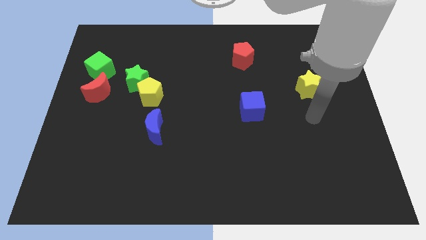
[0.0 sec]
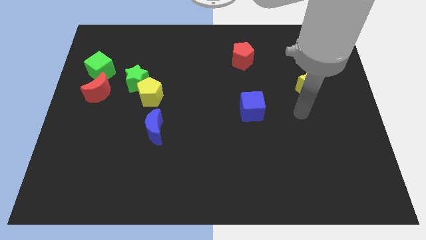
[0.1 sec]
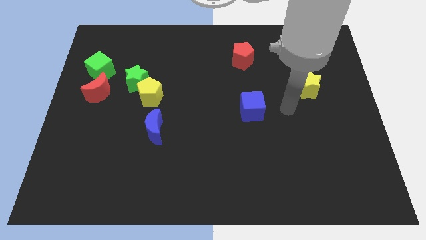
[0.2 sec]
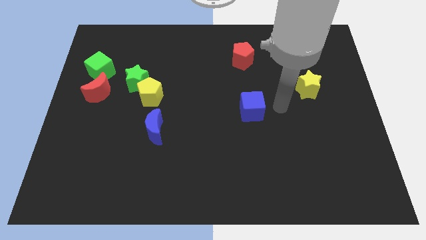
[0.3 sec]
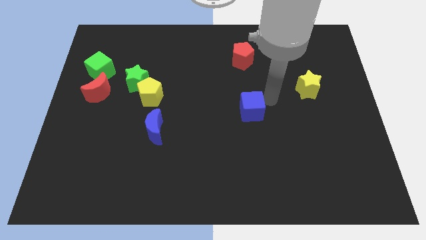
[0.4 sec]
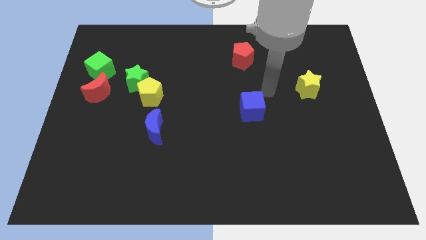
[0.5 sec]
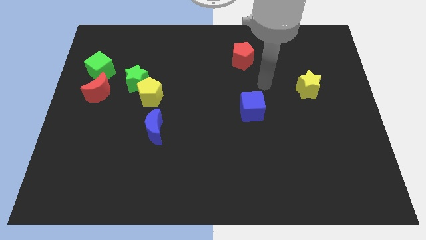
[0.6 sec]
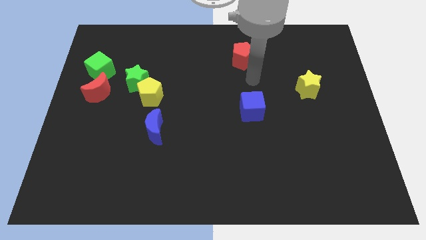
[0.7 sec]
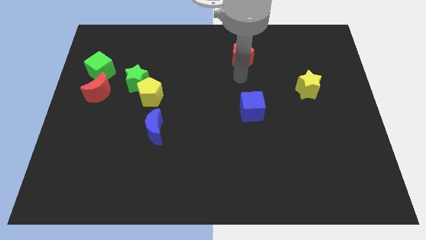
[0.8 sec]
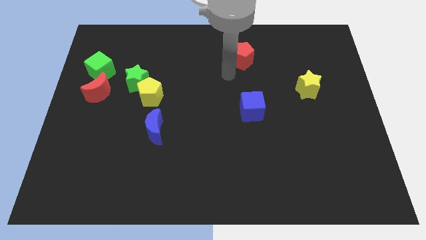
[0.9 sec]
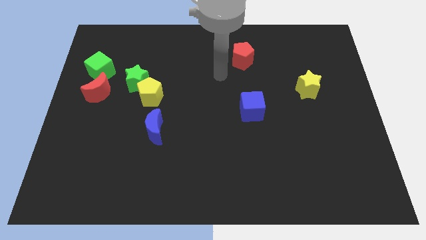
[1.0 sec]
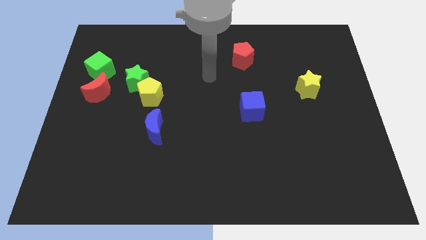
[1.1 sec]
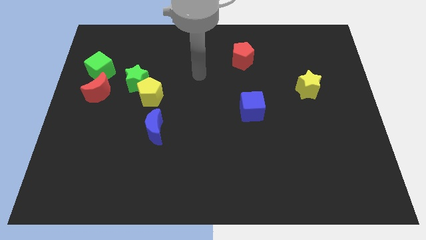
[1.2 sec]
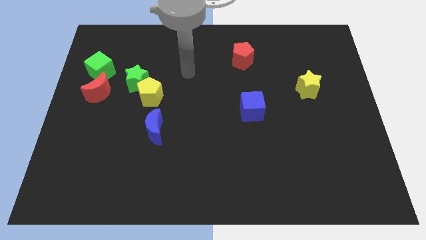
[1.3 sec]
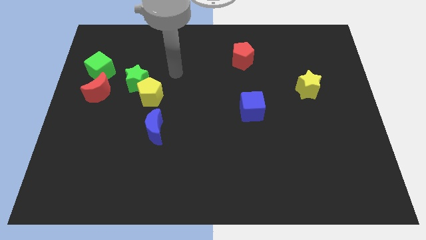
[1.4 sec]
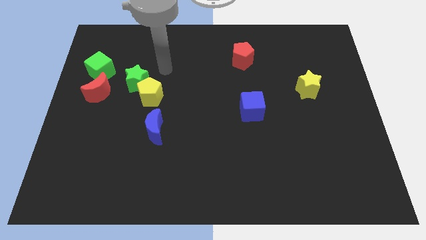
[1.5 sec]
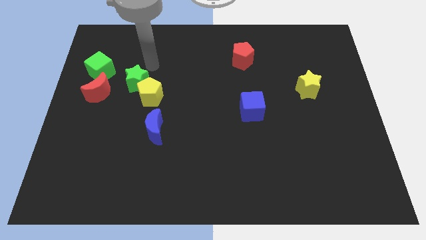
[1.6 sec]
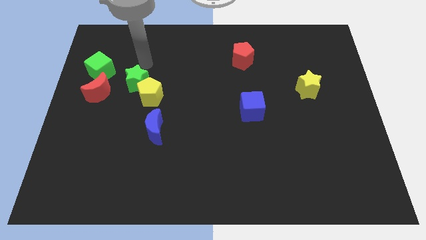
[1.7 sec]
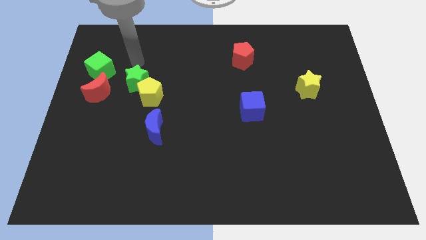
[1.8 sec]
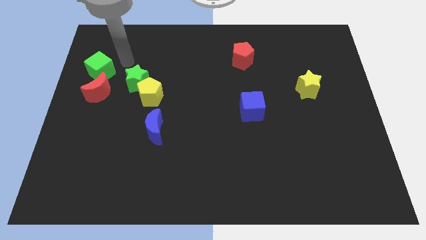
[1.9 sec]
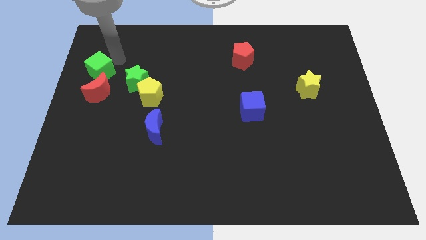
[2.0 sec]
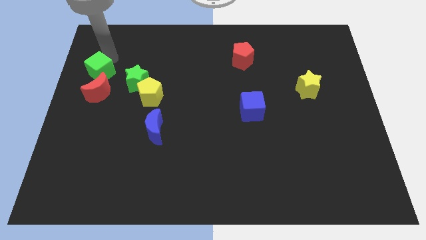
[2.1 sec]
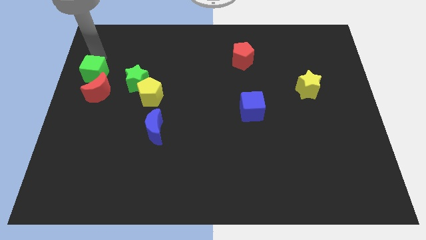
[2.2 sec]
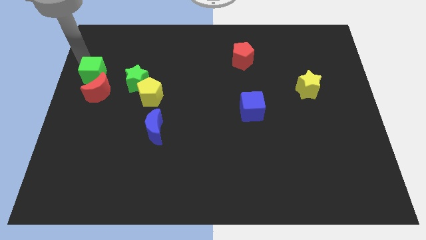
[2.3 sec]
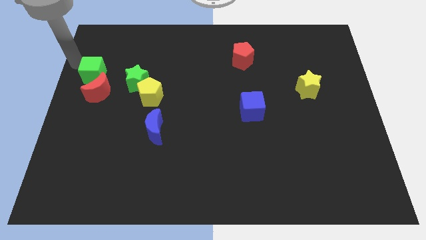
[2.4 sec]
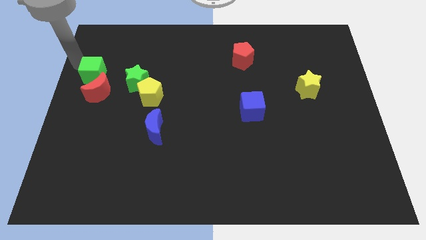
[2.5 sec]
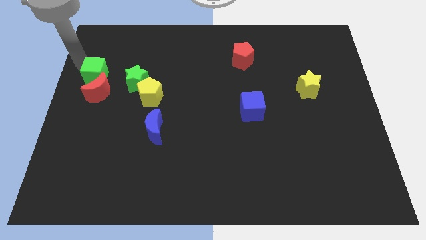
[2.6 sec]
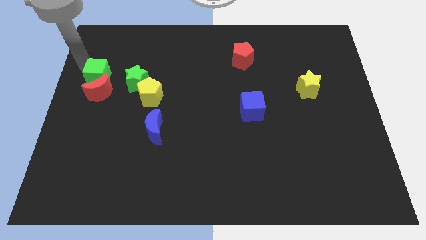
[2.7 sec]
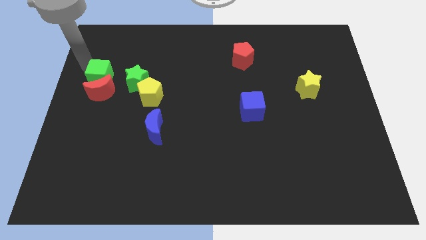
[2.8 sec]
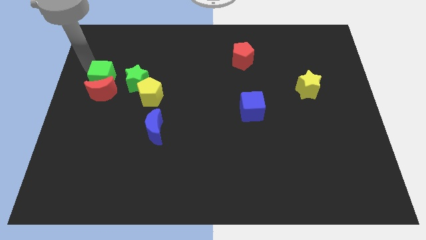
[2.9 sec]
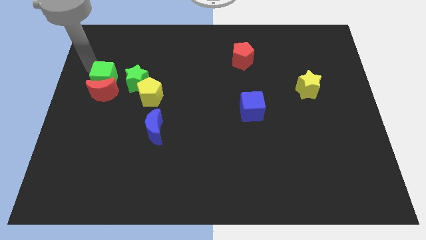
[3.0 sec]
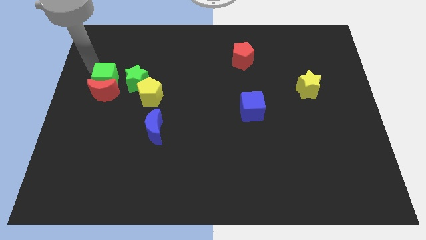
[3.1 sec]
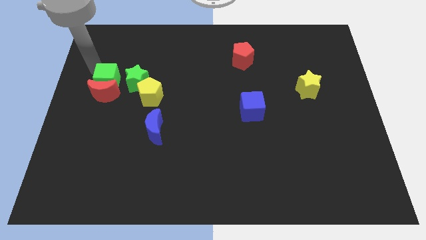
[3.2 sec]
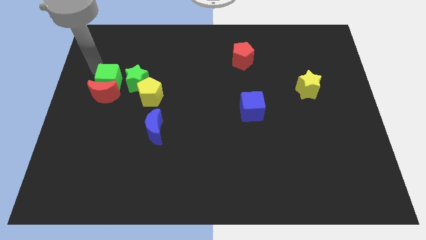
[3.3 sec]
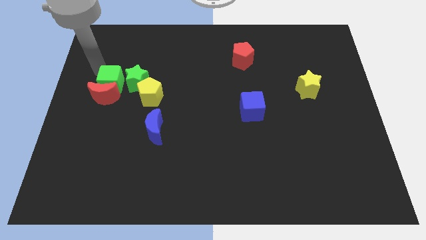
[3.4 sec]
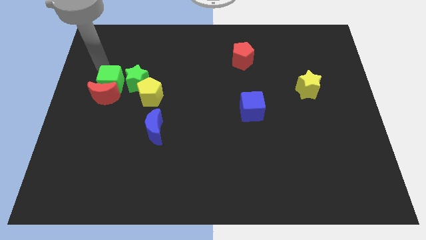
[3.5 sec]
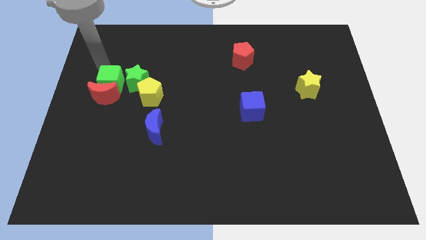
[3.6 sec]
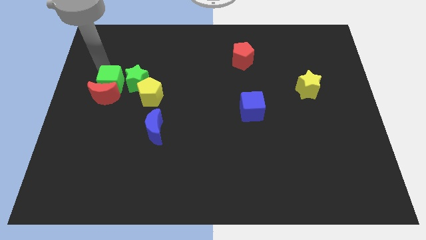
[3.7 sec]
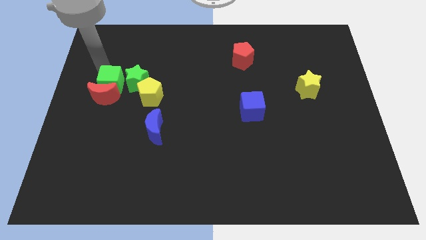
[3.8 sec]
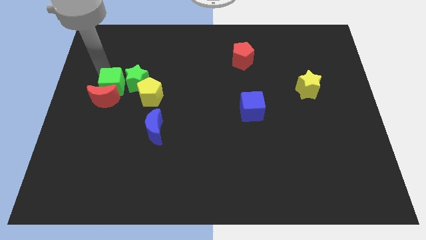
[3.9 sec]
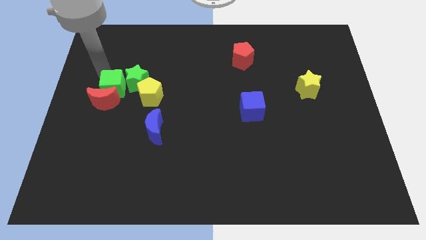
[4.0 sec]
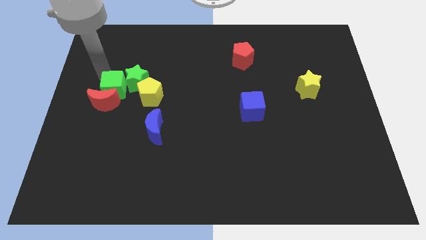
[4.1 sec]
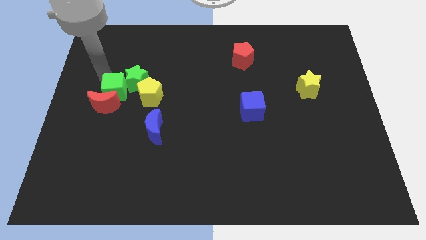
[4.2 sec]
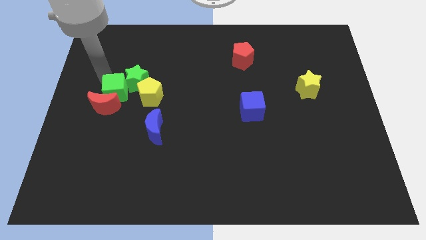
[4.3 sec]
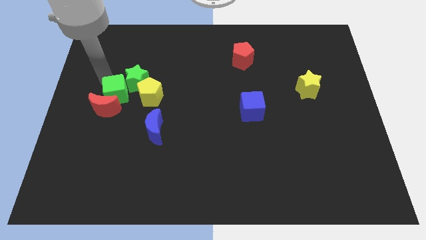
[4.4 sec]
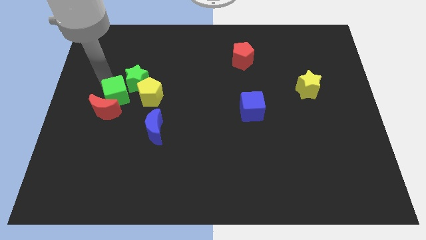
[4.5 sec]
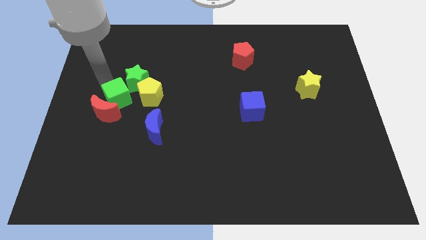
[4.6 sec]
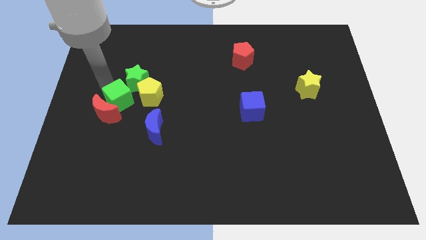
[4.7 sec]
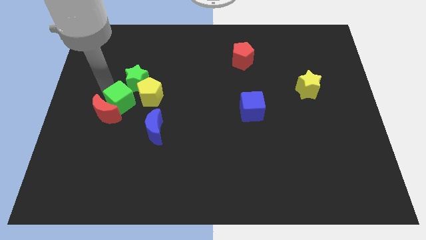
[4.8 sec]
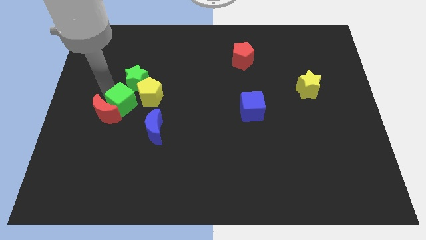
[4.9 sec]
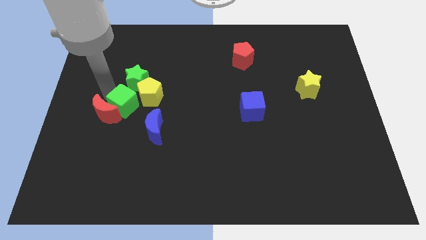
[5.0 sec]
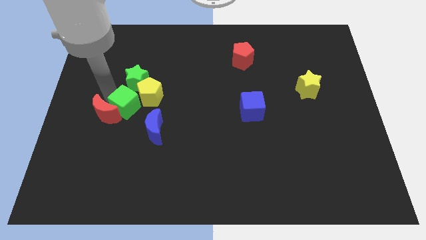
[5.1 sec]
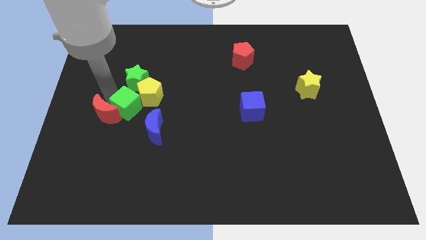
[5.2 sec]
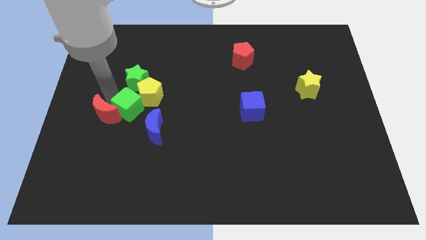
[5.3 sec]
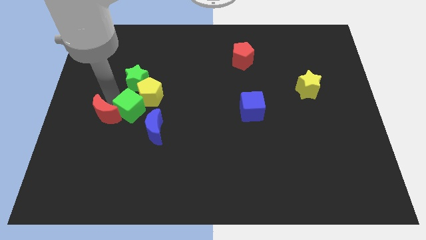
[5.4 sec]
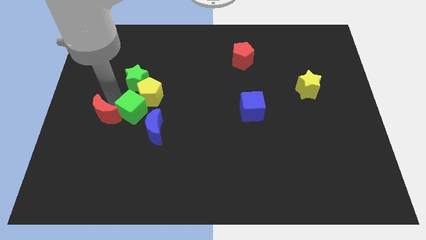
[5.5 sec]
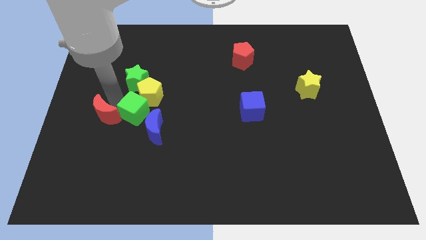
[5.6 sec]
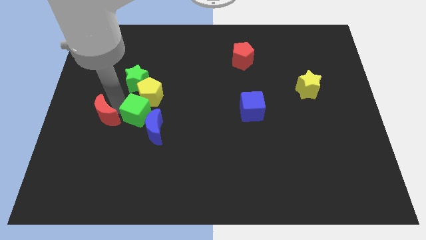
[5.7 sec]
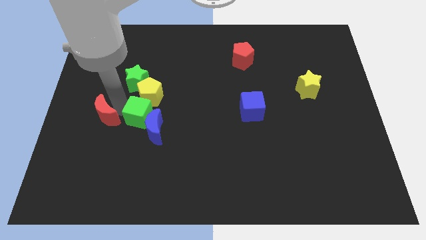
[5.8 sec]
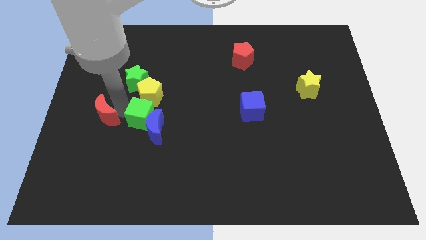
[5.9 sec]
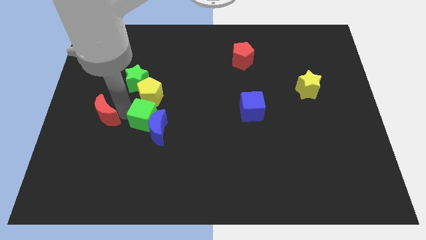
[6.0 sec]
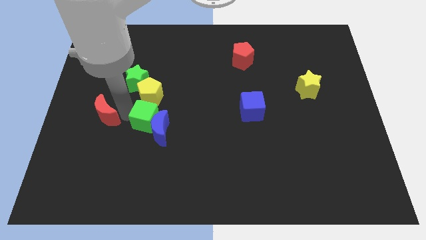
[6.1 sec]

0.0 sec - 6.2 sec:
push the green cube down and to the right

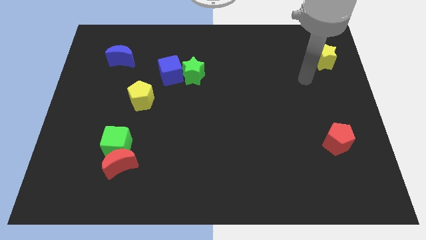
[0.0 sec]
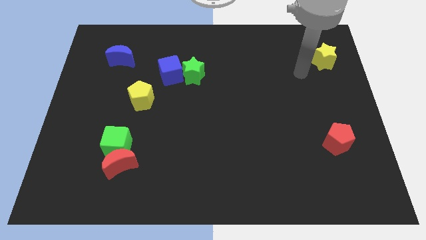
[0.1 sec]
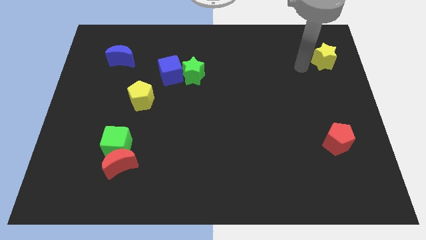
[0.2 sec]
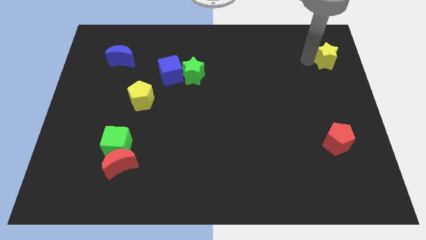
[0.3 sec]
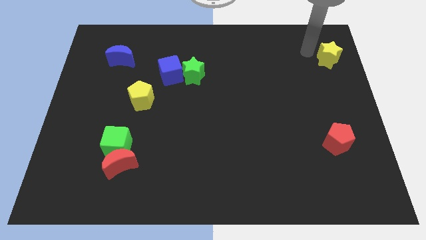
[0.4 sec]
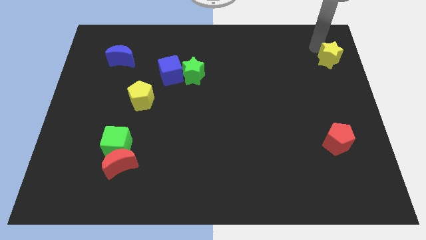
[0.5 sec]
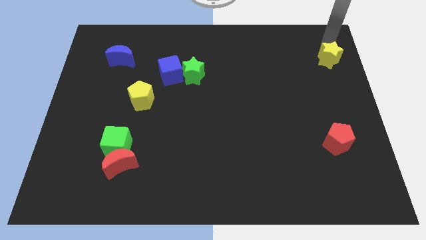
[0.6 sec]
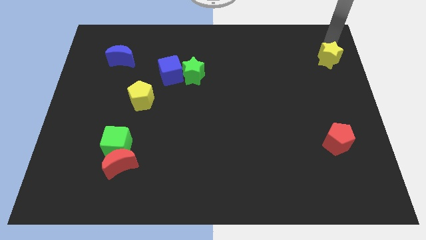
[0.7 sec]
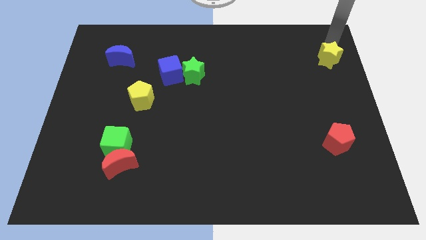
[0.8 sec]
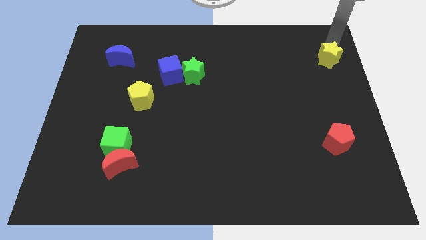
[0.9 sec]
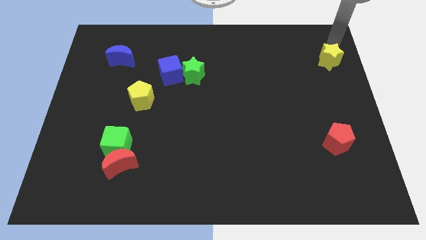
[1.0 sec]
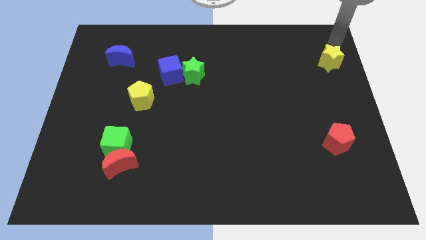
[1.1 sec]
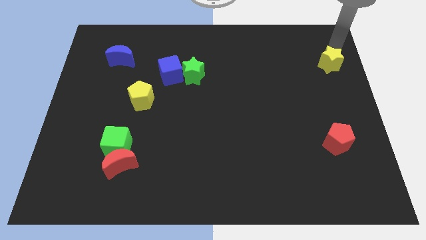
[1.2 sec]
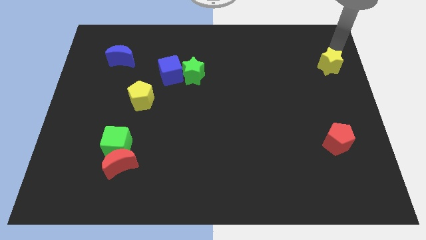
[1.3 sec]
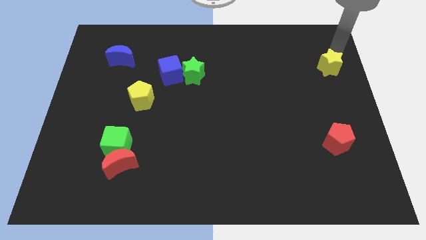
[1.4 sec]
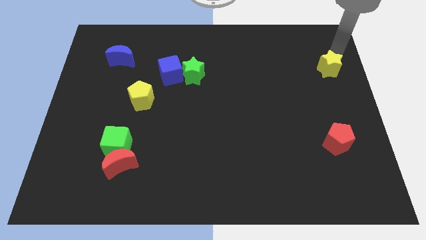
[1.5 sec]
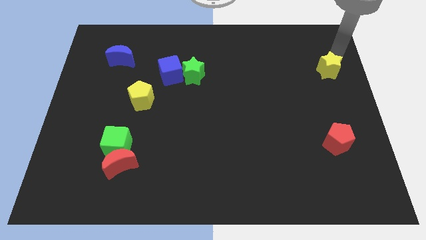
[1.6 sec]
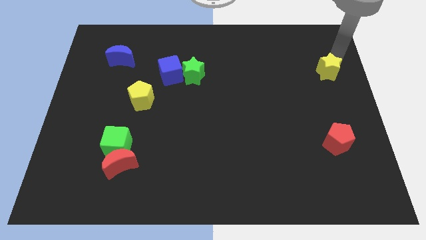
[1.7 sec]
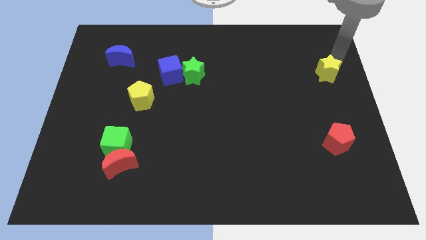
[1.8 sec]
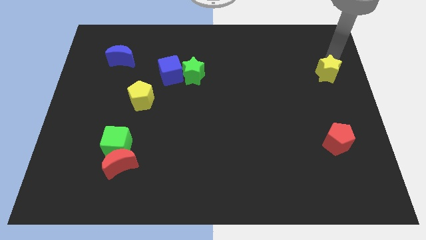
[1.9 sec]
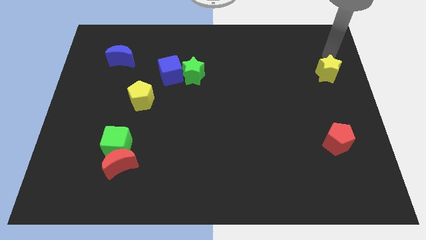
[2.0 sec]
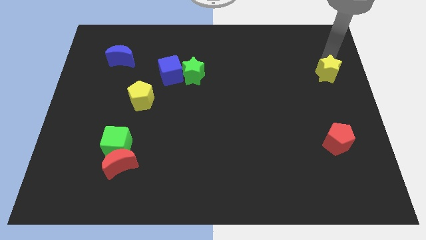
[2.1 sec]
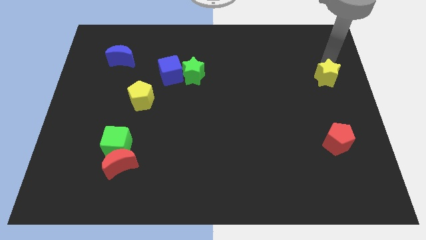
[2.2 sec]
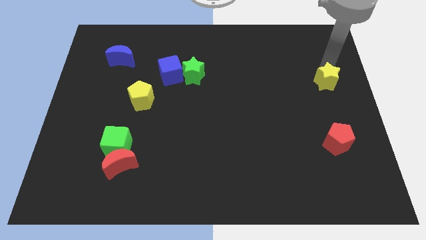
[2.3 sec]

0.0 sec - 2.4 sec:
slide the yellow star down somewhat
